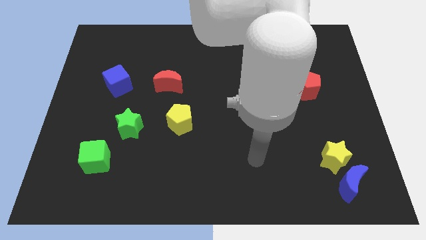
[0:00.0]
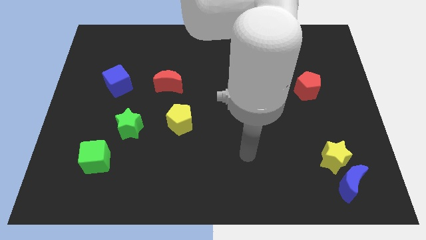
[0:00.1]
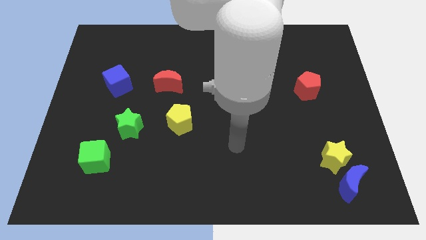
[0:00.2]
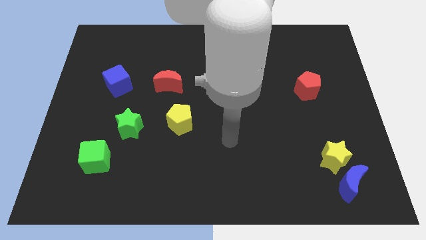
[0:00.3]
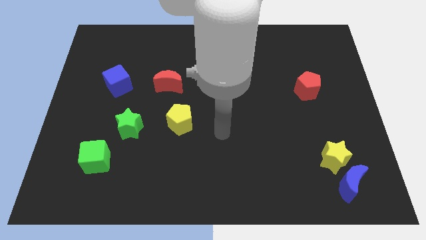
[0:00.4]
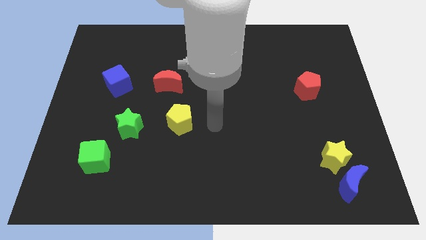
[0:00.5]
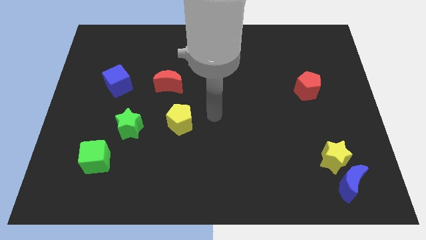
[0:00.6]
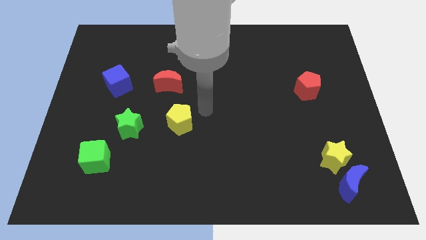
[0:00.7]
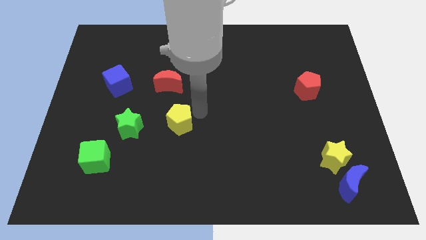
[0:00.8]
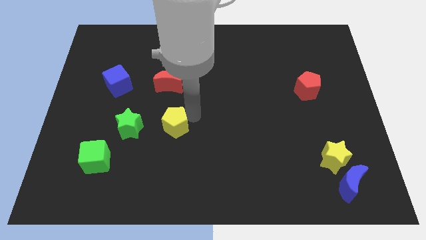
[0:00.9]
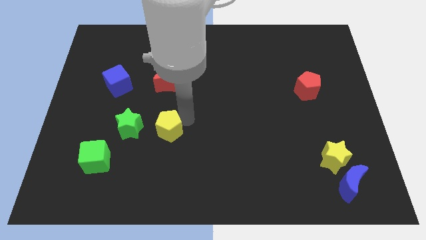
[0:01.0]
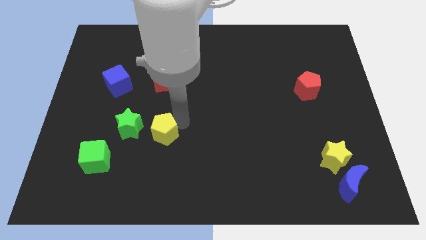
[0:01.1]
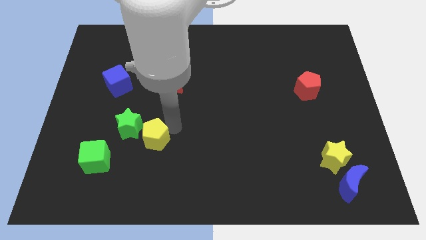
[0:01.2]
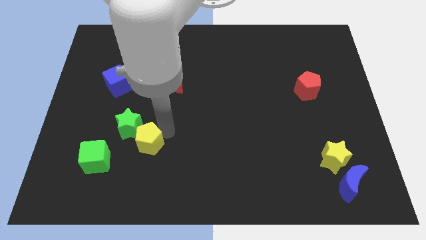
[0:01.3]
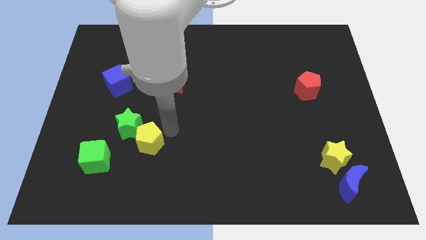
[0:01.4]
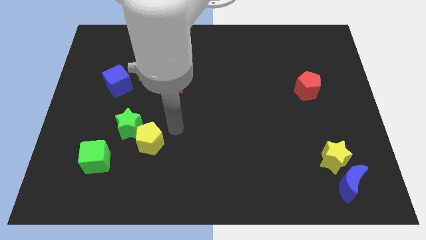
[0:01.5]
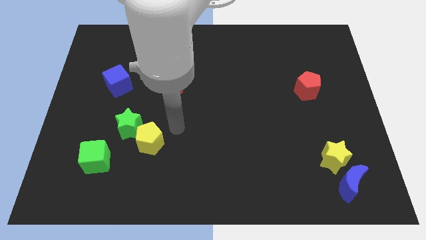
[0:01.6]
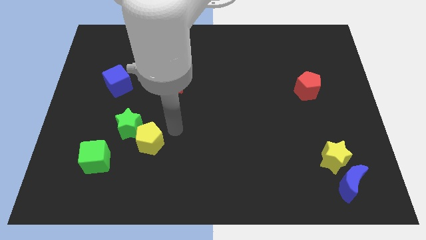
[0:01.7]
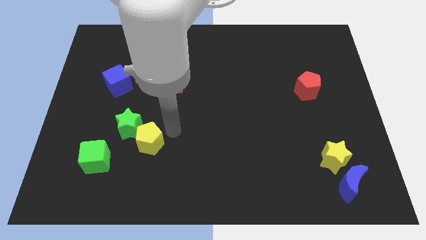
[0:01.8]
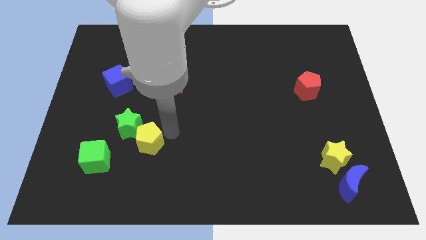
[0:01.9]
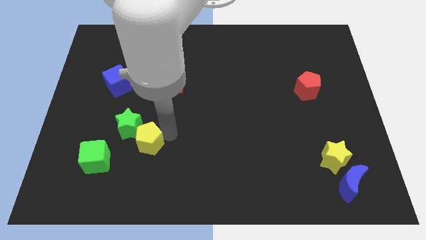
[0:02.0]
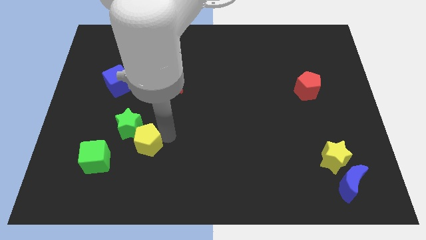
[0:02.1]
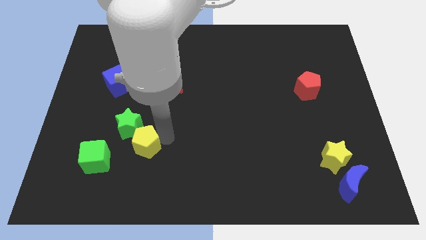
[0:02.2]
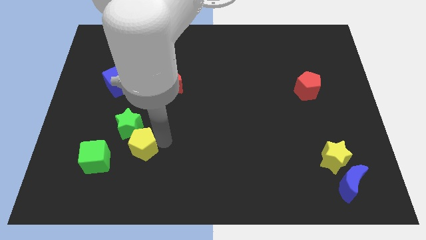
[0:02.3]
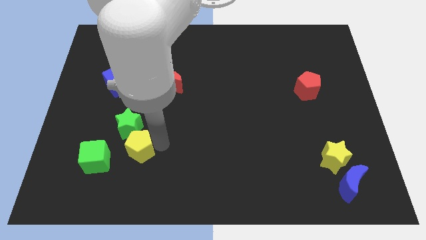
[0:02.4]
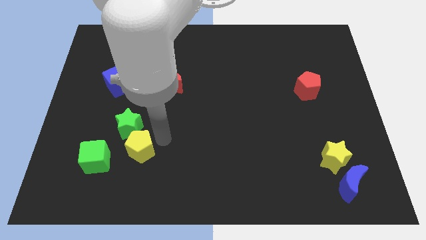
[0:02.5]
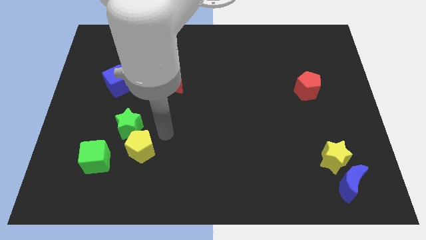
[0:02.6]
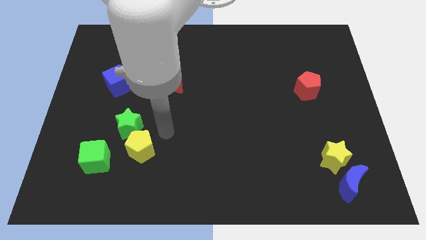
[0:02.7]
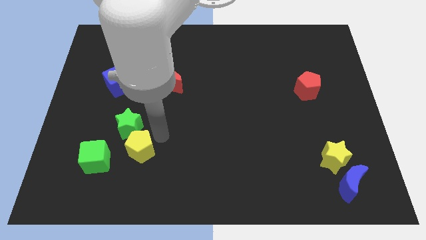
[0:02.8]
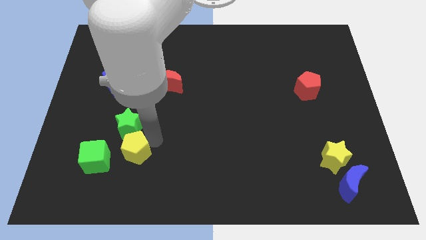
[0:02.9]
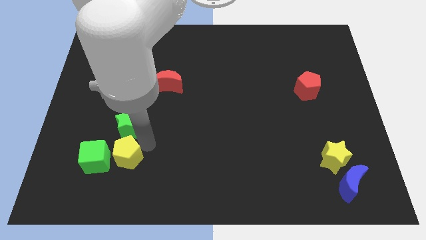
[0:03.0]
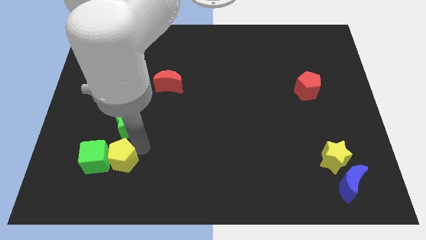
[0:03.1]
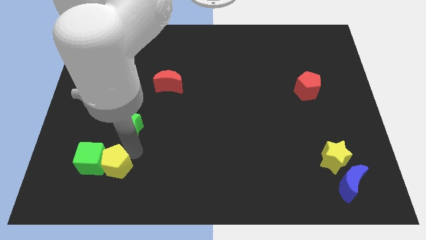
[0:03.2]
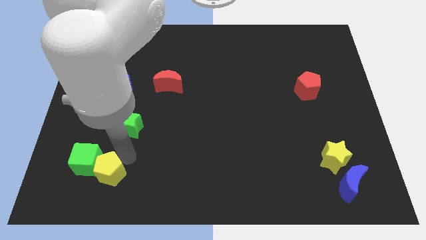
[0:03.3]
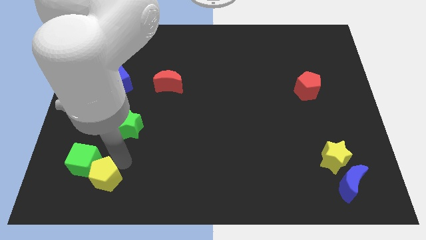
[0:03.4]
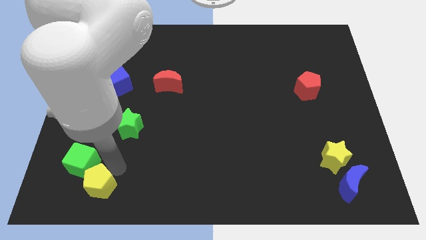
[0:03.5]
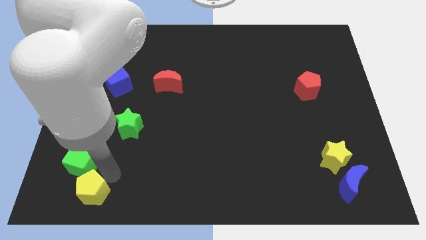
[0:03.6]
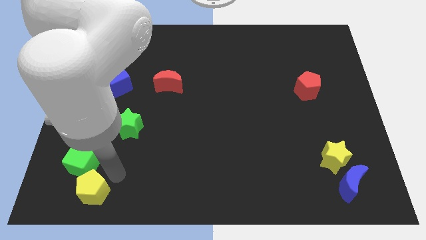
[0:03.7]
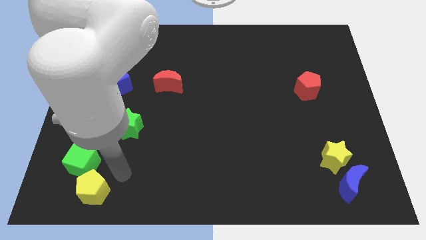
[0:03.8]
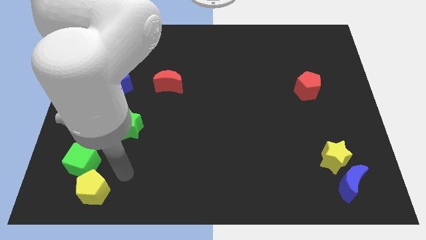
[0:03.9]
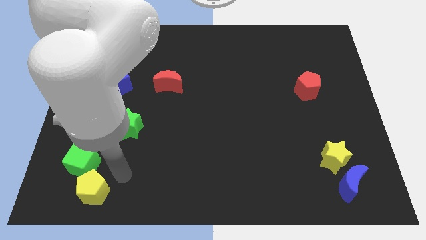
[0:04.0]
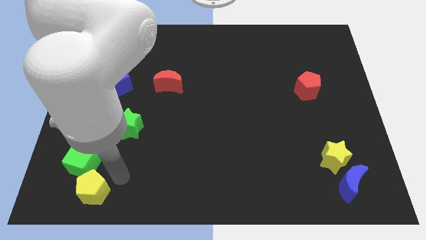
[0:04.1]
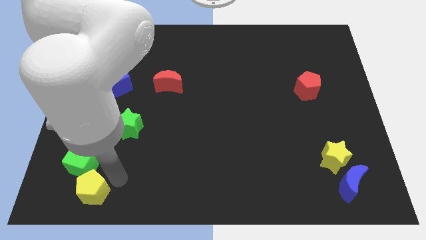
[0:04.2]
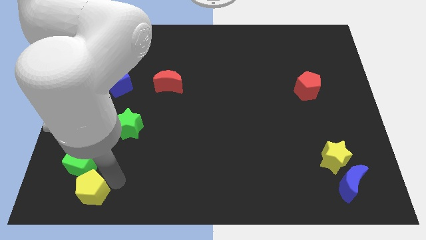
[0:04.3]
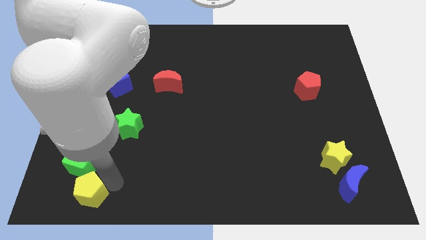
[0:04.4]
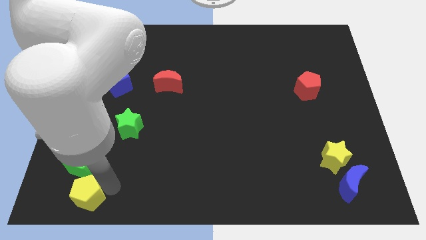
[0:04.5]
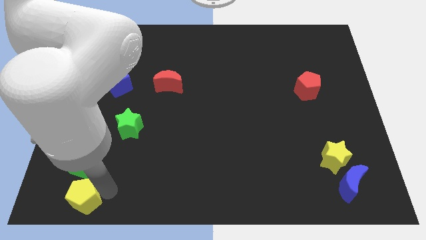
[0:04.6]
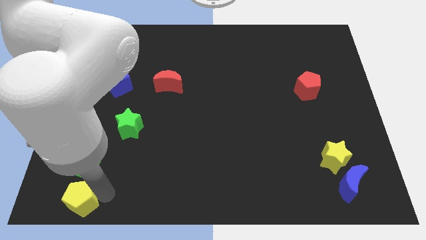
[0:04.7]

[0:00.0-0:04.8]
push the yellow pentagon to the bottom left corner

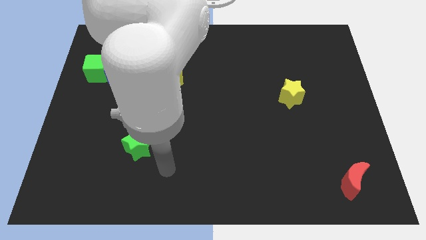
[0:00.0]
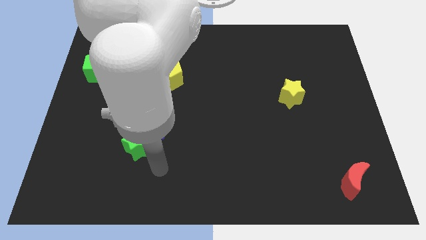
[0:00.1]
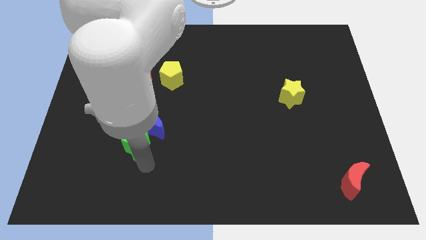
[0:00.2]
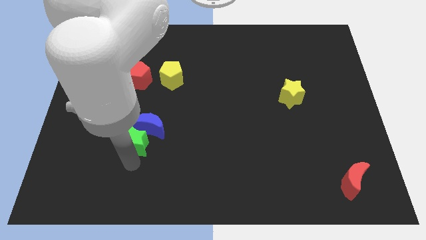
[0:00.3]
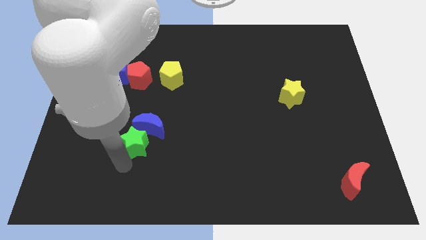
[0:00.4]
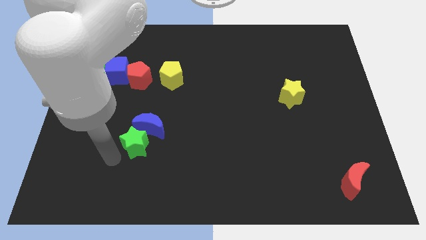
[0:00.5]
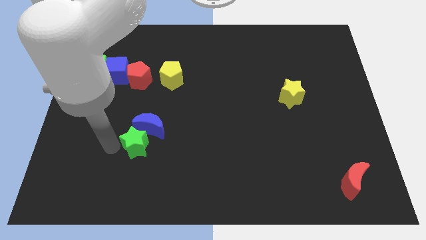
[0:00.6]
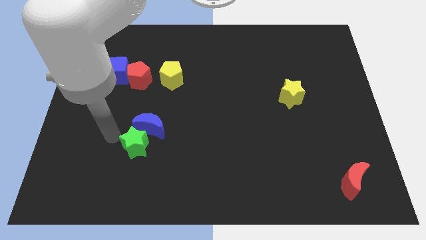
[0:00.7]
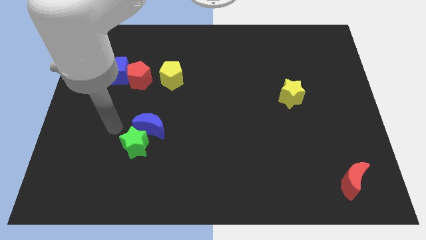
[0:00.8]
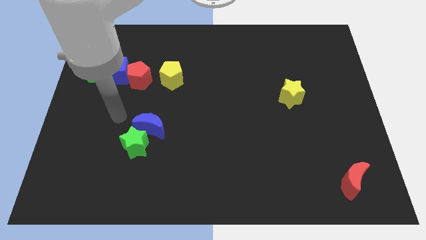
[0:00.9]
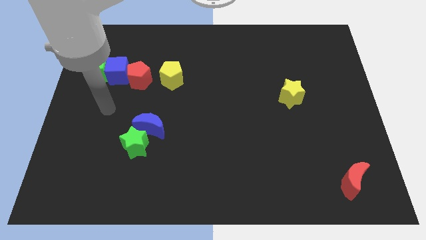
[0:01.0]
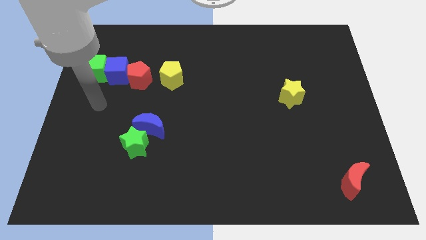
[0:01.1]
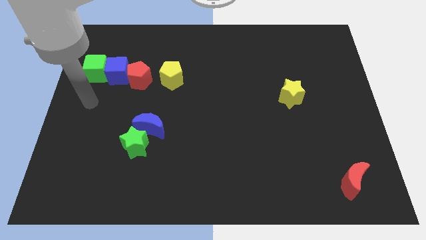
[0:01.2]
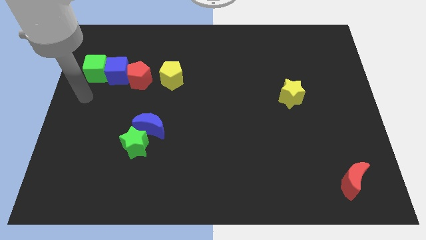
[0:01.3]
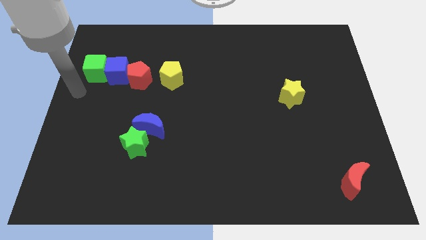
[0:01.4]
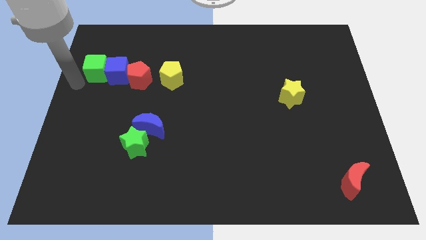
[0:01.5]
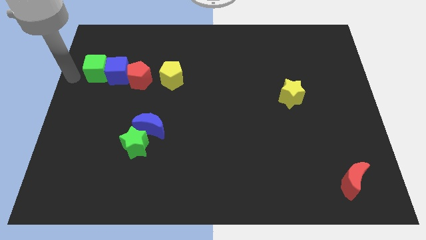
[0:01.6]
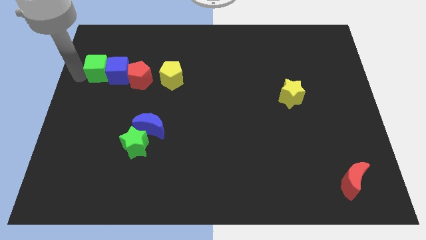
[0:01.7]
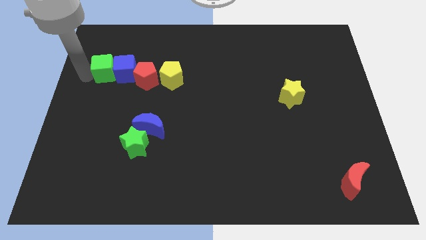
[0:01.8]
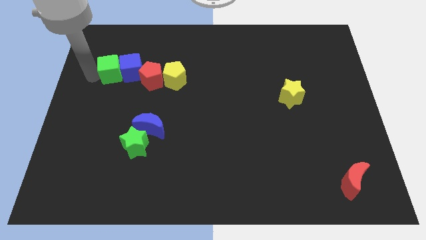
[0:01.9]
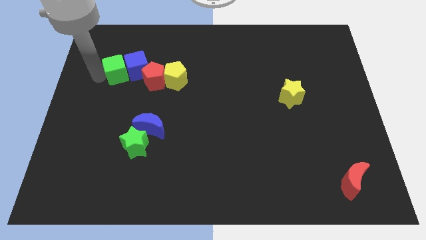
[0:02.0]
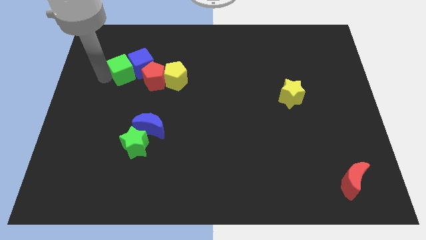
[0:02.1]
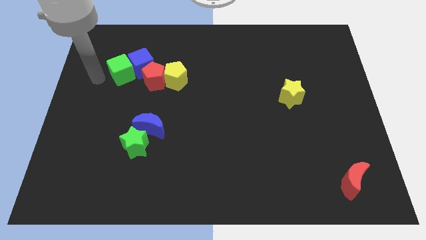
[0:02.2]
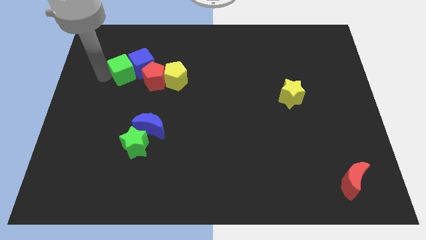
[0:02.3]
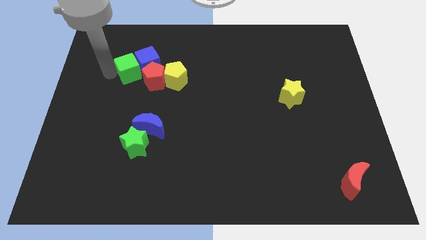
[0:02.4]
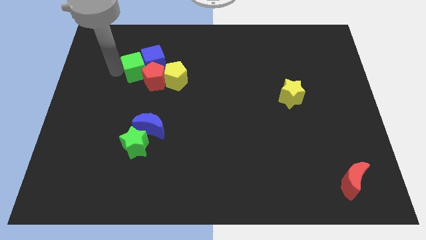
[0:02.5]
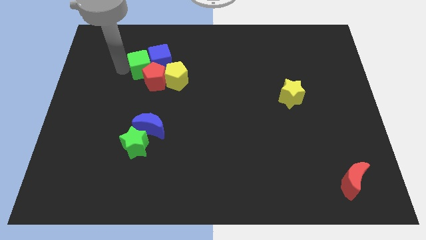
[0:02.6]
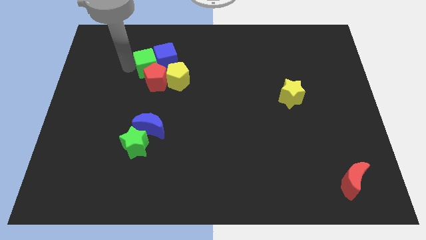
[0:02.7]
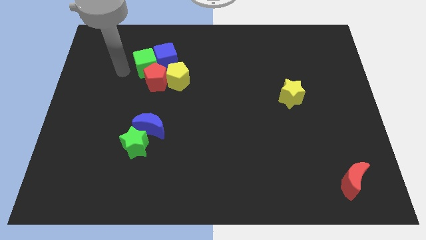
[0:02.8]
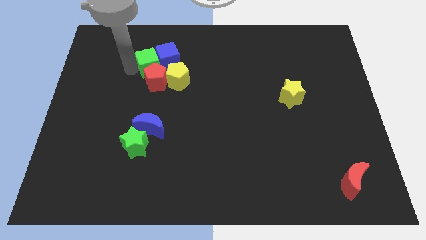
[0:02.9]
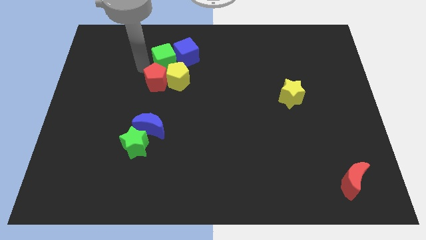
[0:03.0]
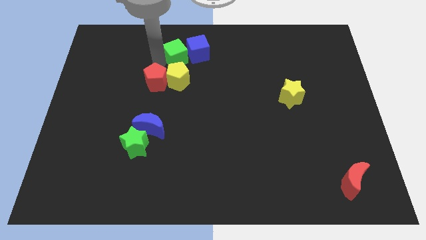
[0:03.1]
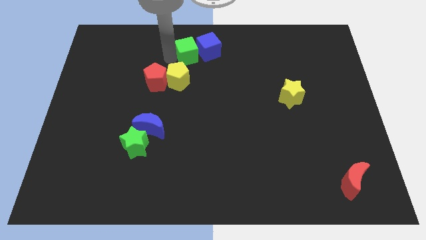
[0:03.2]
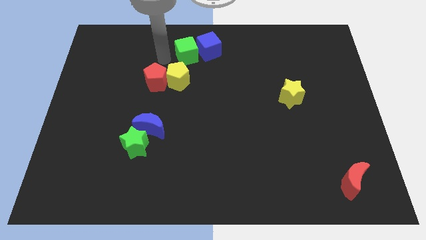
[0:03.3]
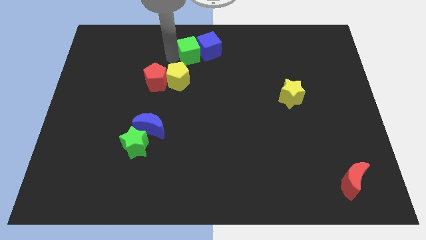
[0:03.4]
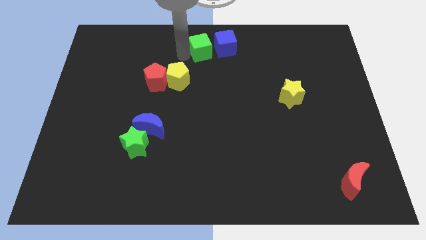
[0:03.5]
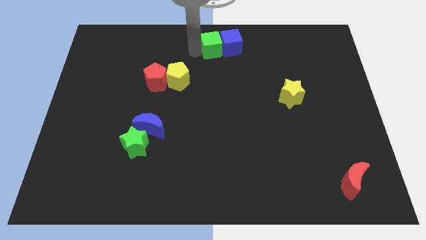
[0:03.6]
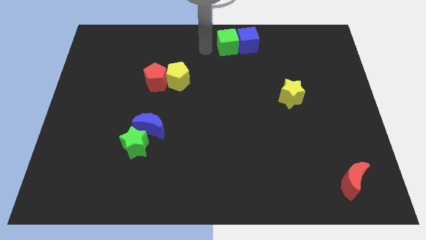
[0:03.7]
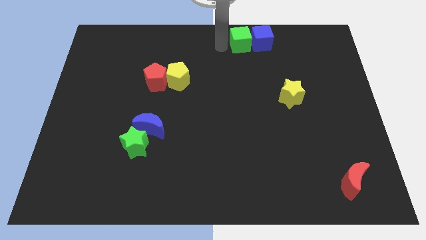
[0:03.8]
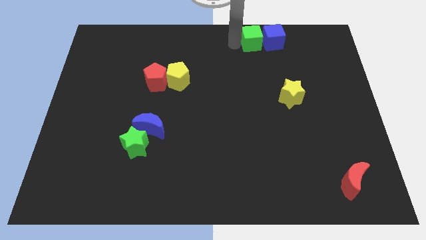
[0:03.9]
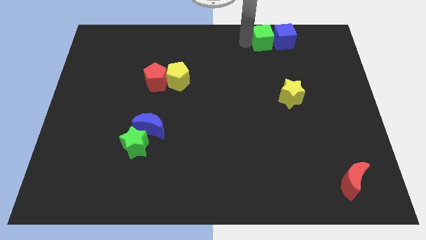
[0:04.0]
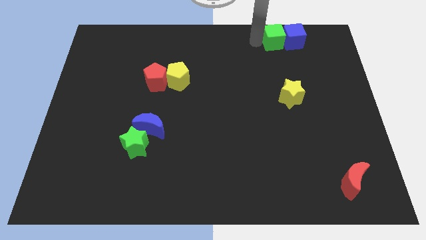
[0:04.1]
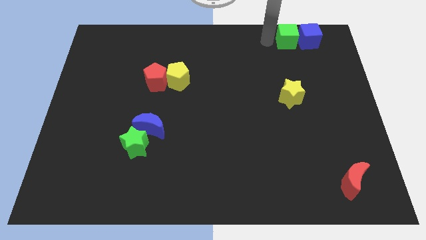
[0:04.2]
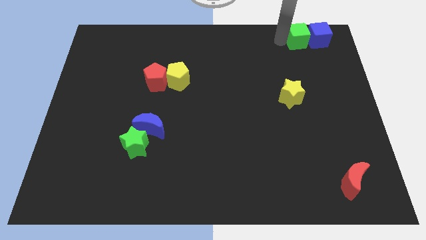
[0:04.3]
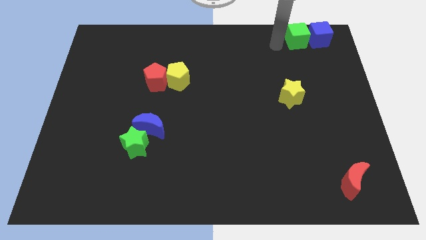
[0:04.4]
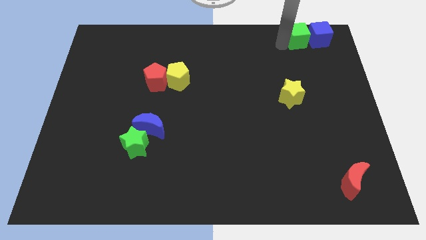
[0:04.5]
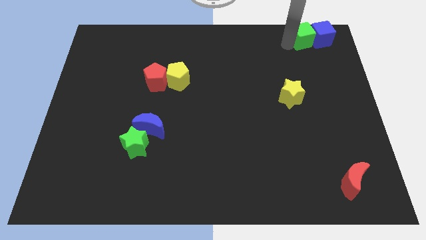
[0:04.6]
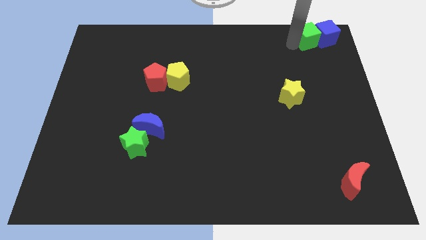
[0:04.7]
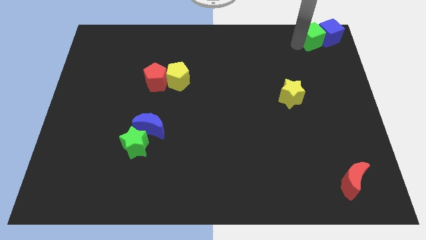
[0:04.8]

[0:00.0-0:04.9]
move the green cube to the upper right corner
